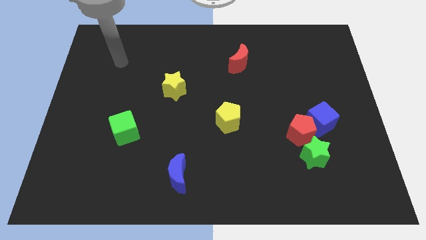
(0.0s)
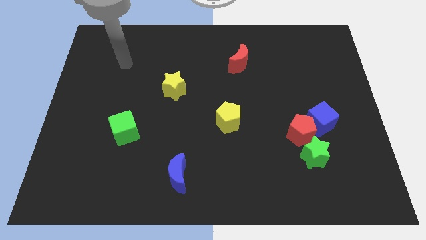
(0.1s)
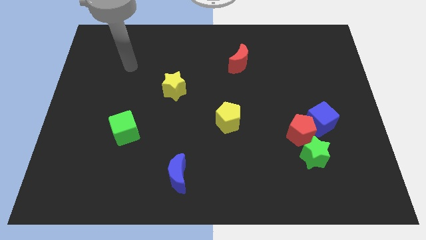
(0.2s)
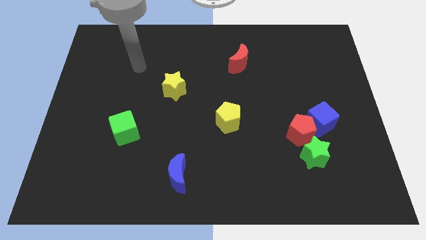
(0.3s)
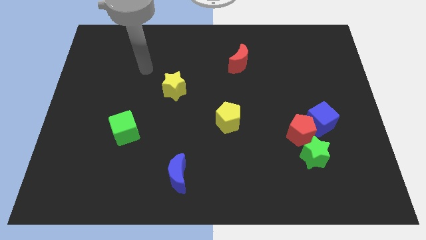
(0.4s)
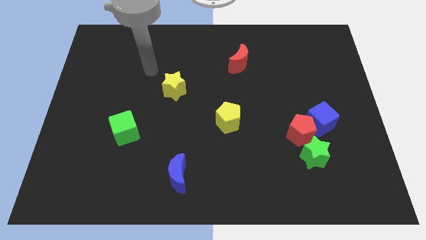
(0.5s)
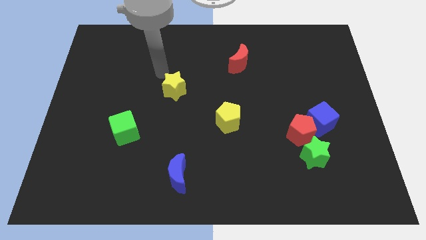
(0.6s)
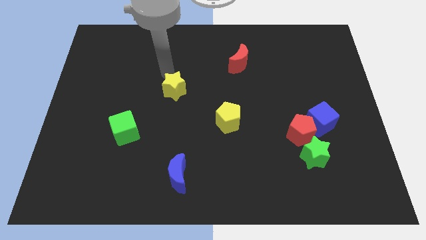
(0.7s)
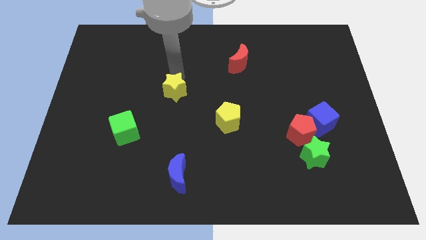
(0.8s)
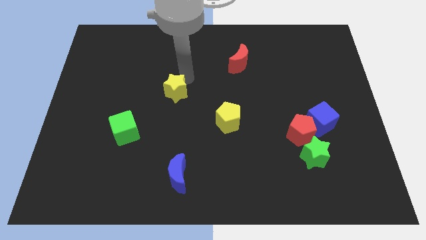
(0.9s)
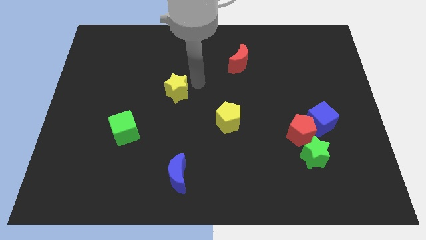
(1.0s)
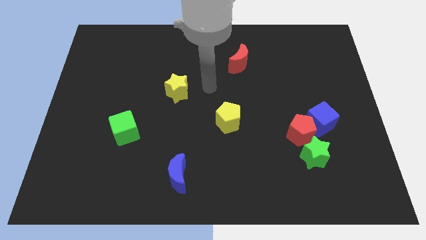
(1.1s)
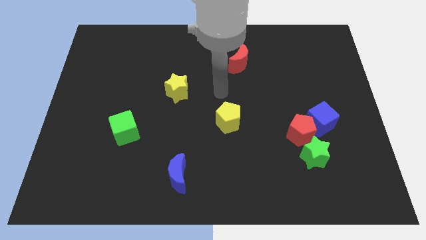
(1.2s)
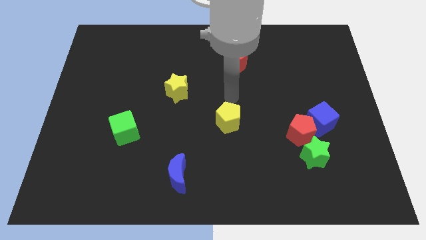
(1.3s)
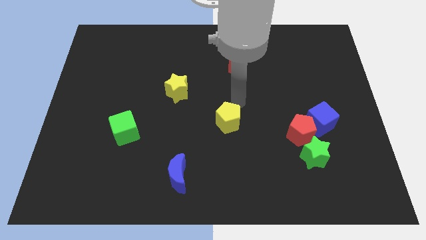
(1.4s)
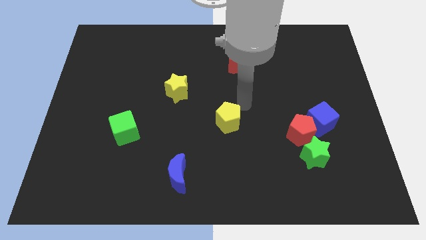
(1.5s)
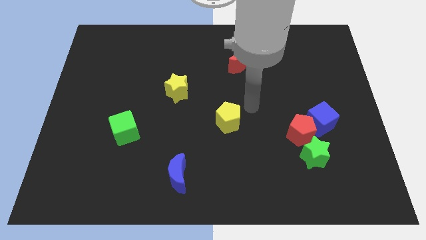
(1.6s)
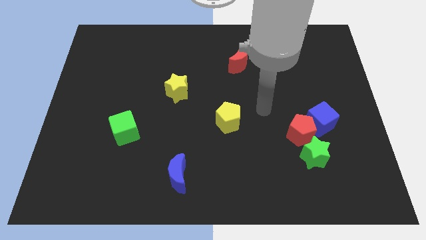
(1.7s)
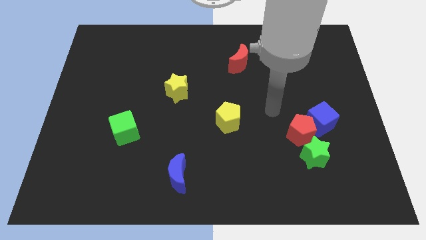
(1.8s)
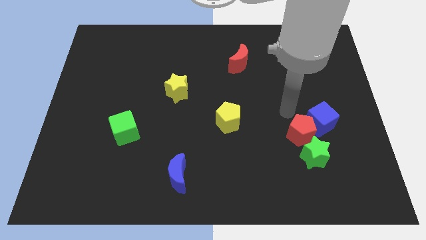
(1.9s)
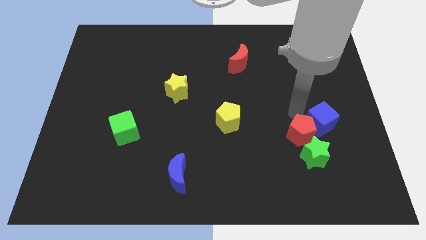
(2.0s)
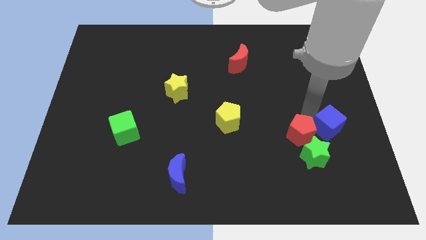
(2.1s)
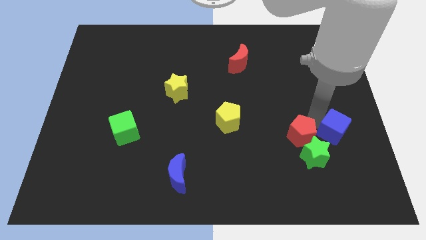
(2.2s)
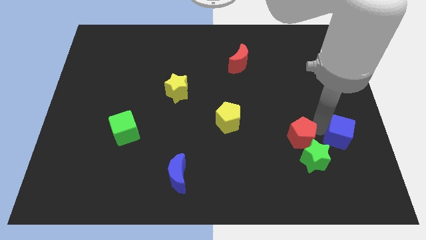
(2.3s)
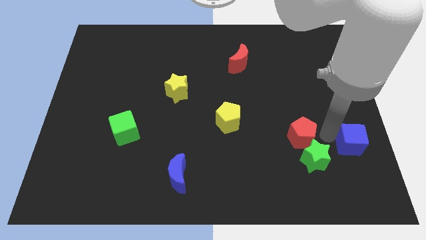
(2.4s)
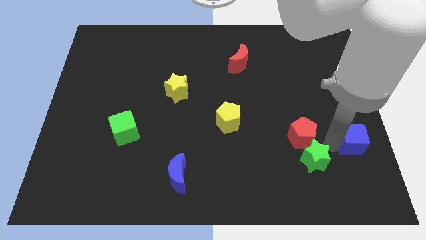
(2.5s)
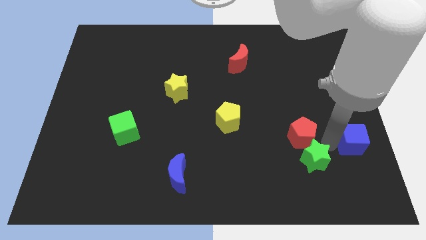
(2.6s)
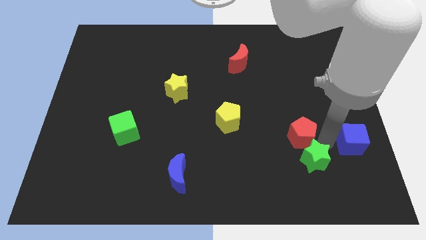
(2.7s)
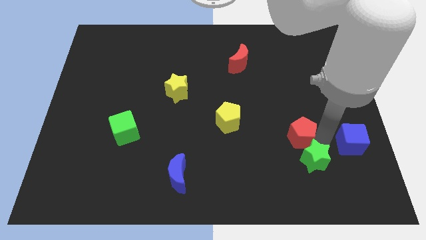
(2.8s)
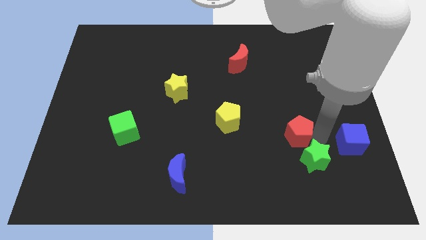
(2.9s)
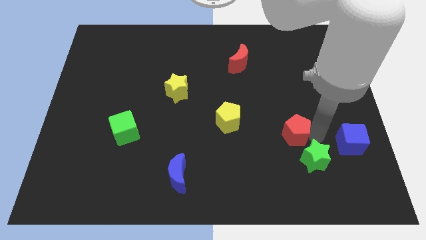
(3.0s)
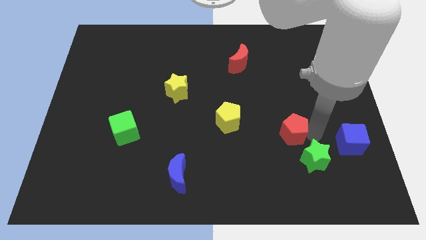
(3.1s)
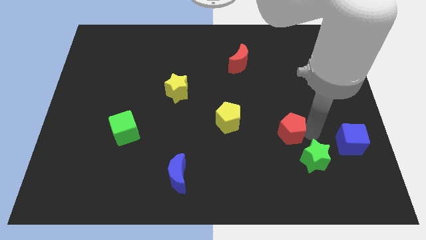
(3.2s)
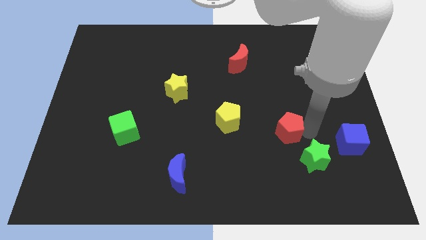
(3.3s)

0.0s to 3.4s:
move the red pentagon away from the blue cube and green star

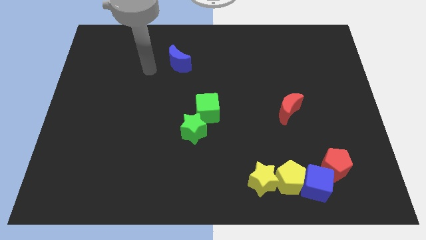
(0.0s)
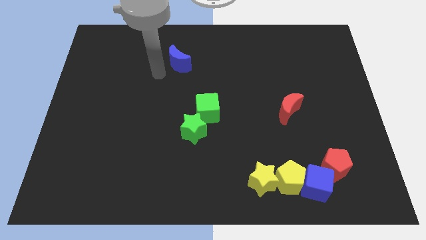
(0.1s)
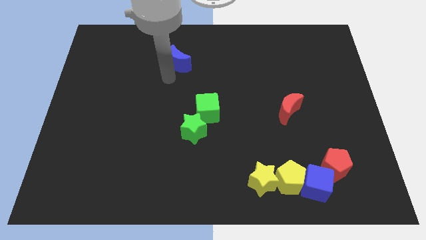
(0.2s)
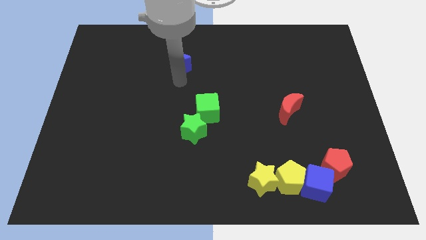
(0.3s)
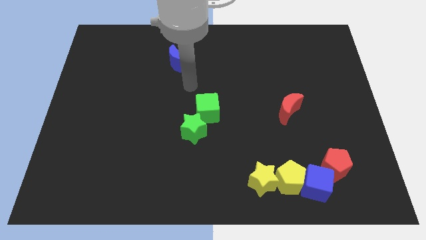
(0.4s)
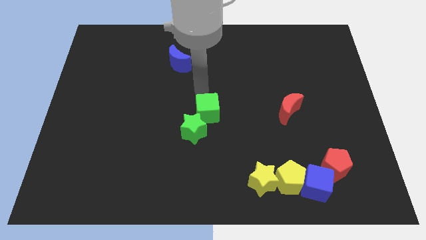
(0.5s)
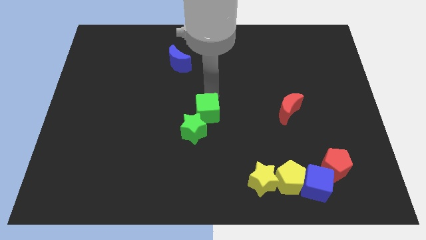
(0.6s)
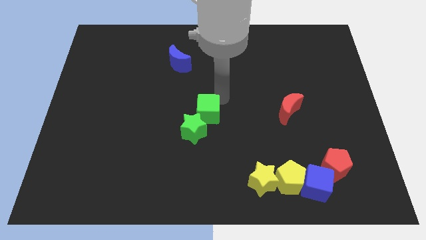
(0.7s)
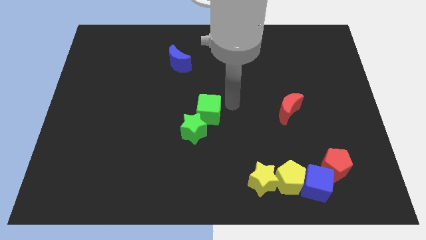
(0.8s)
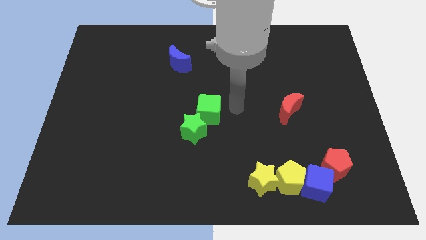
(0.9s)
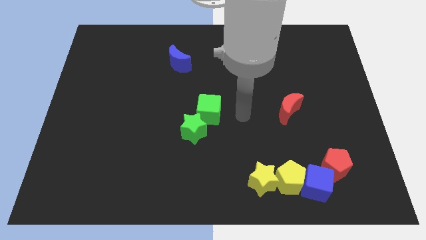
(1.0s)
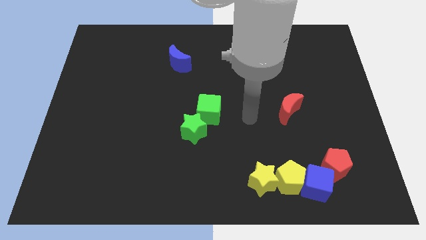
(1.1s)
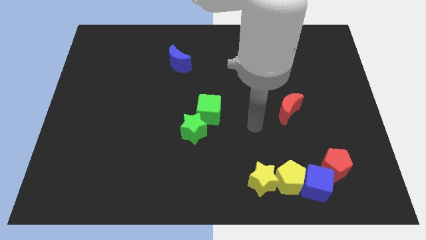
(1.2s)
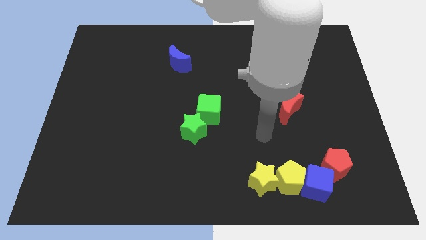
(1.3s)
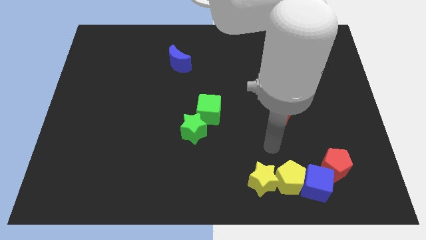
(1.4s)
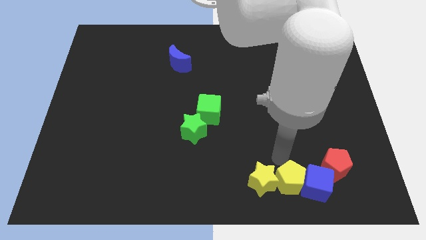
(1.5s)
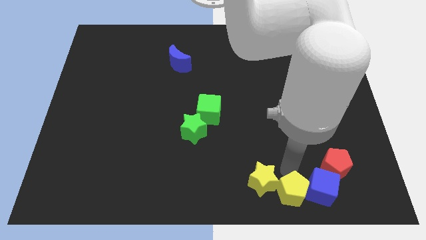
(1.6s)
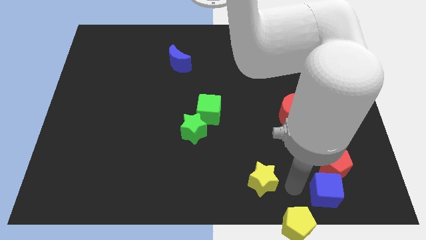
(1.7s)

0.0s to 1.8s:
separate the yellow star from the yellow pentagon

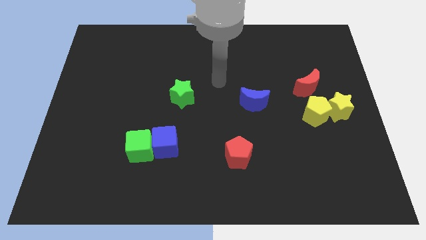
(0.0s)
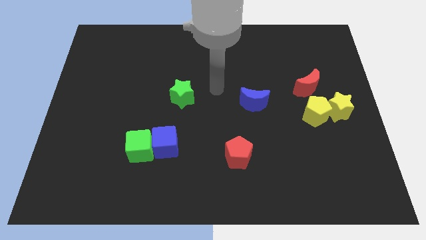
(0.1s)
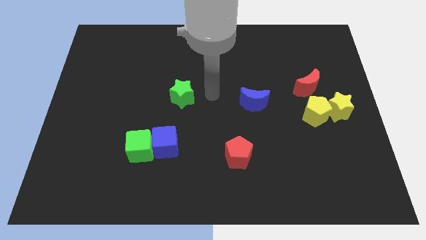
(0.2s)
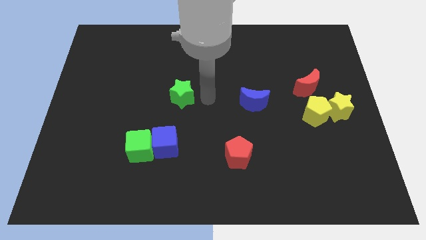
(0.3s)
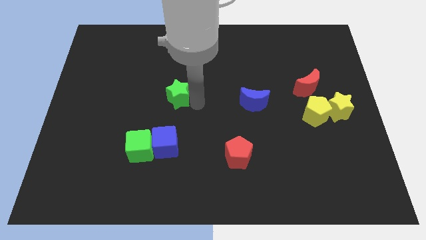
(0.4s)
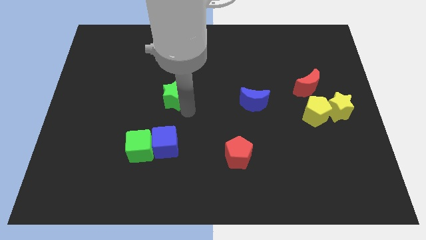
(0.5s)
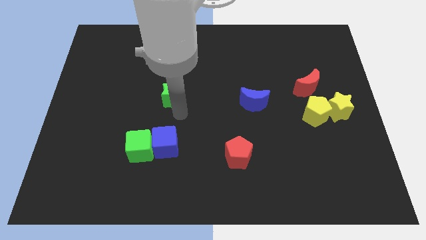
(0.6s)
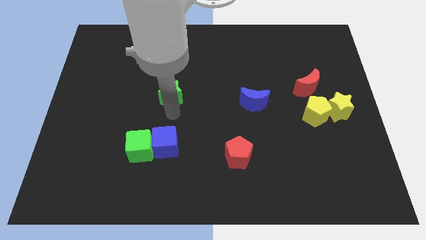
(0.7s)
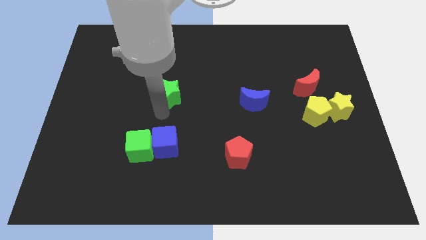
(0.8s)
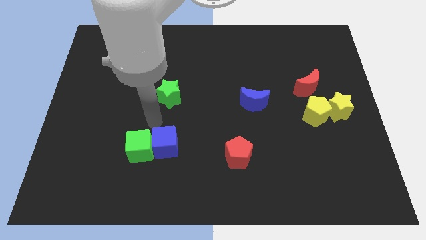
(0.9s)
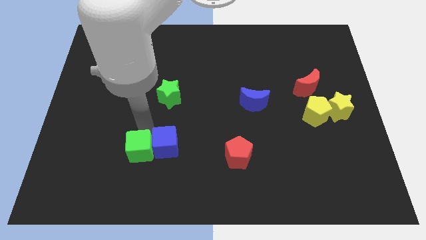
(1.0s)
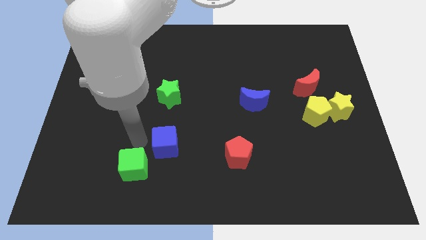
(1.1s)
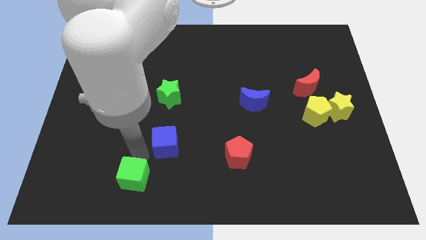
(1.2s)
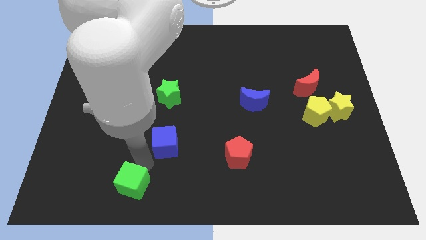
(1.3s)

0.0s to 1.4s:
move the blue cube away from the green cube
